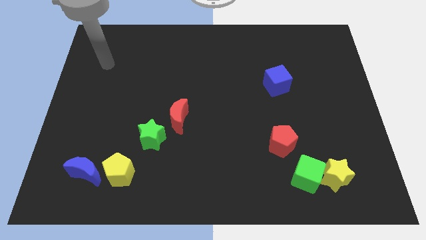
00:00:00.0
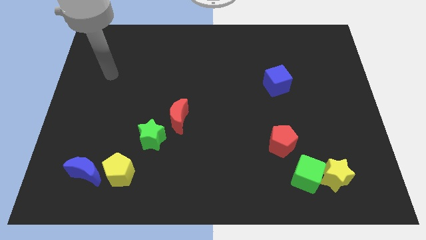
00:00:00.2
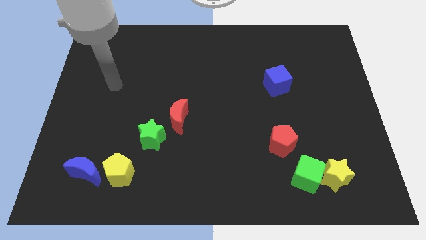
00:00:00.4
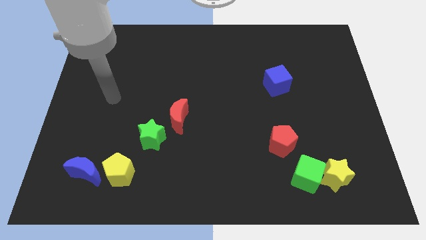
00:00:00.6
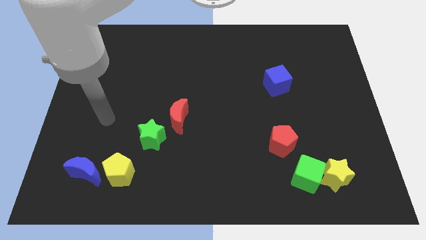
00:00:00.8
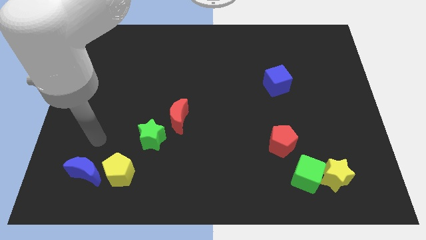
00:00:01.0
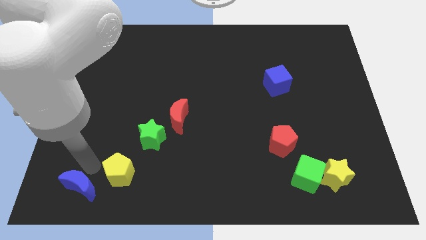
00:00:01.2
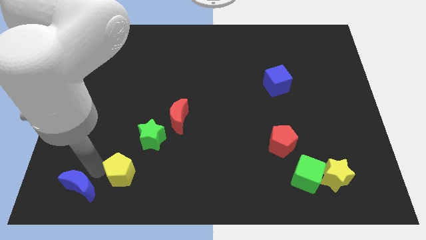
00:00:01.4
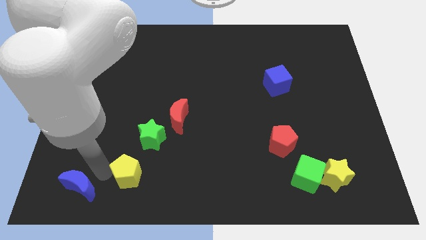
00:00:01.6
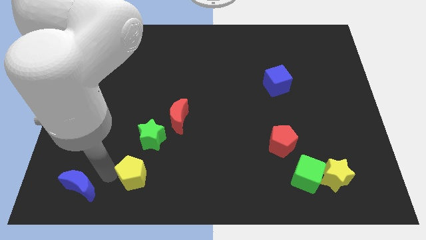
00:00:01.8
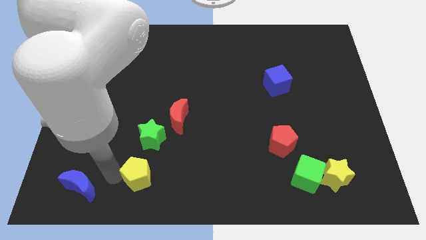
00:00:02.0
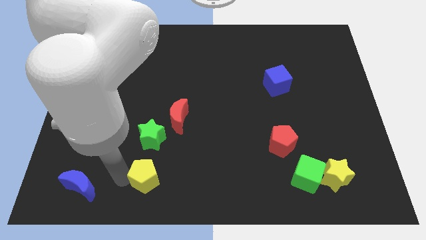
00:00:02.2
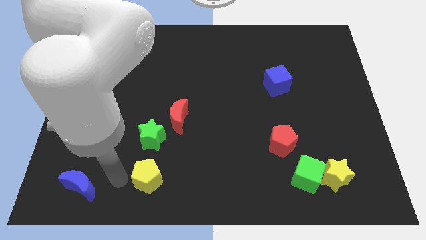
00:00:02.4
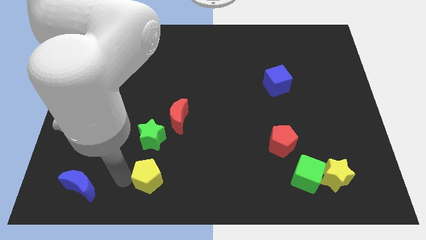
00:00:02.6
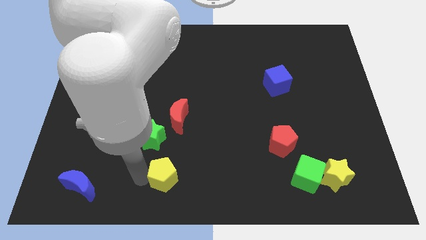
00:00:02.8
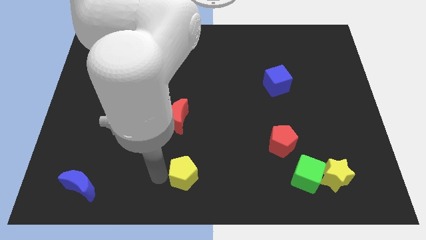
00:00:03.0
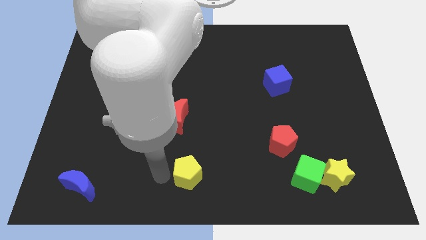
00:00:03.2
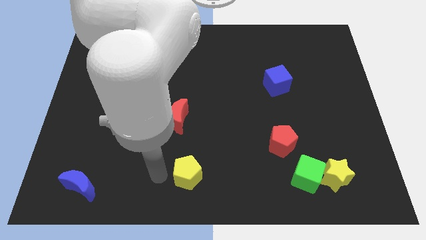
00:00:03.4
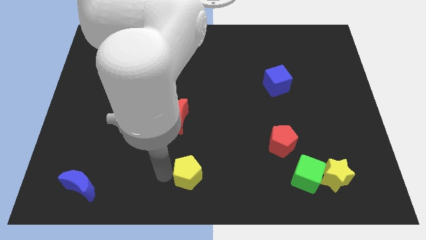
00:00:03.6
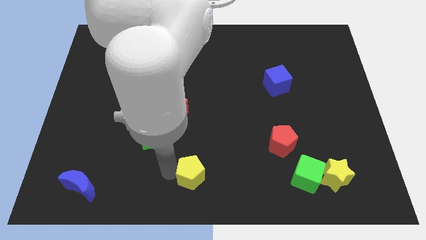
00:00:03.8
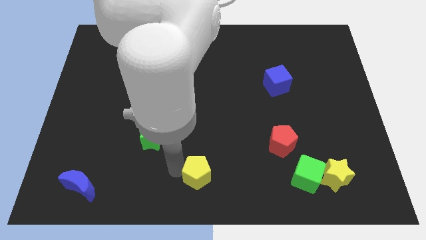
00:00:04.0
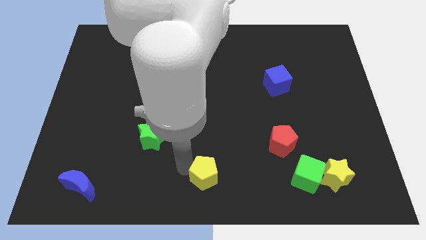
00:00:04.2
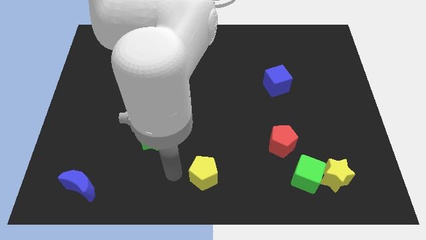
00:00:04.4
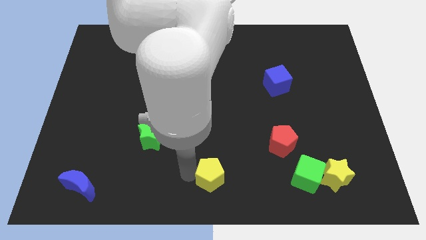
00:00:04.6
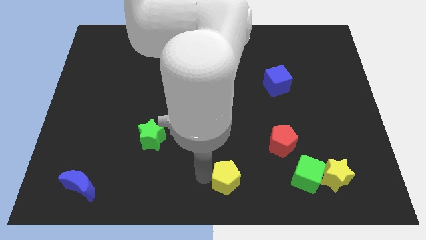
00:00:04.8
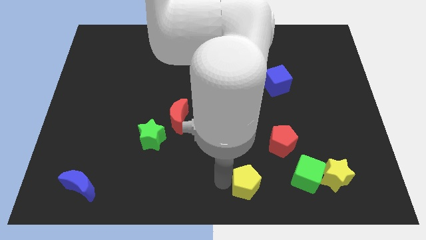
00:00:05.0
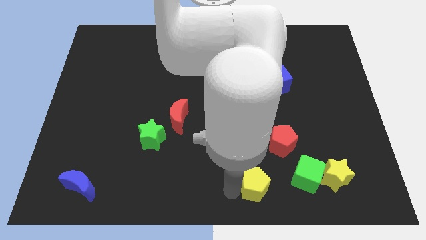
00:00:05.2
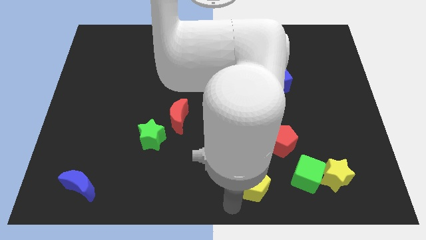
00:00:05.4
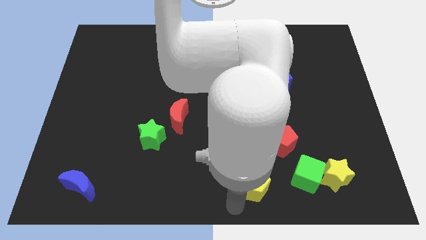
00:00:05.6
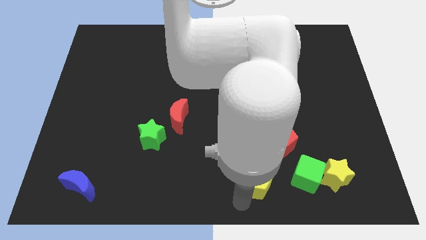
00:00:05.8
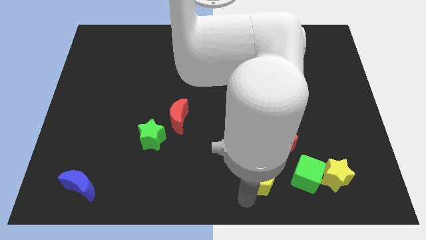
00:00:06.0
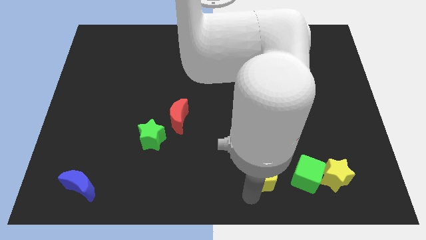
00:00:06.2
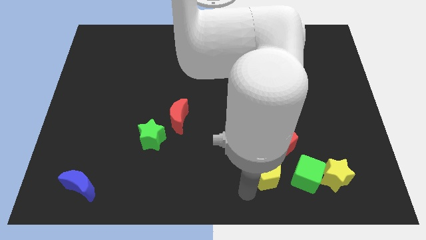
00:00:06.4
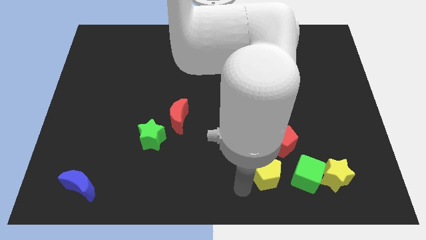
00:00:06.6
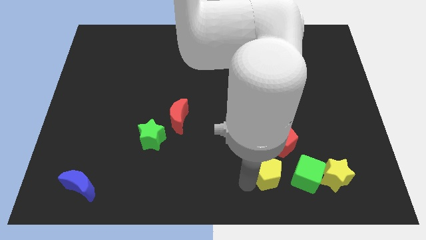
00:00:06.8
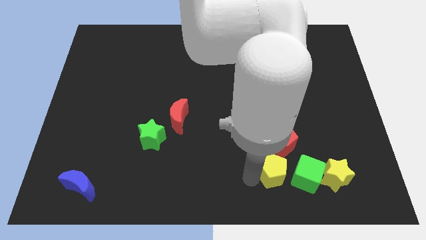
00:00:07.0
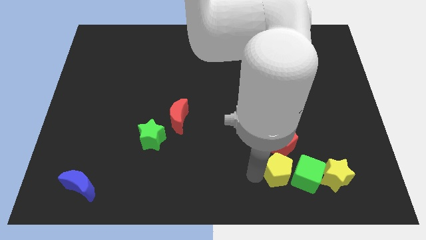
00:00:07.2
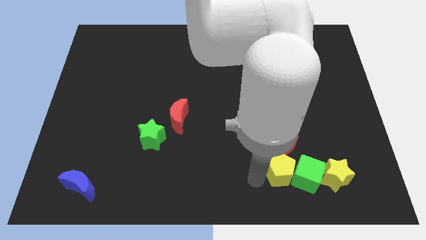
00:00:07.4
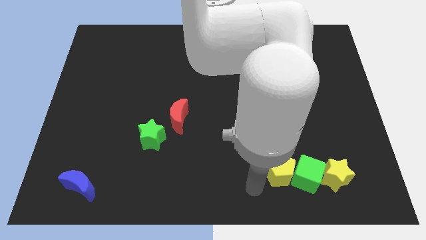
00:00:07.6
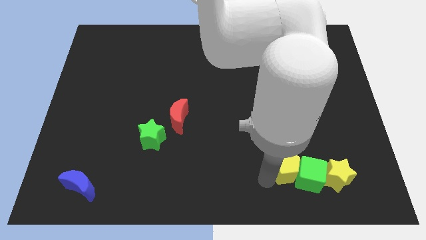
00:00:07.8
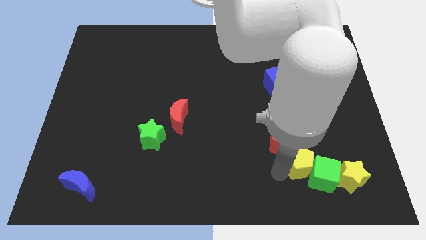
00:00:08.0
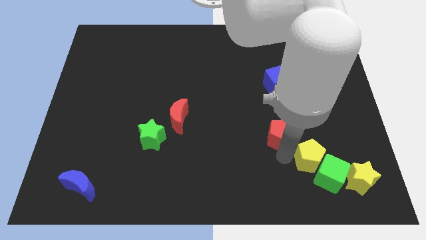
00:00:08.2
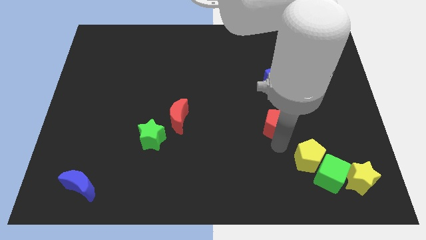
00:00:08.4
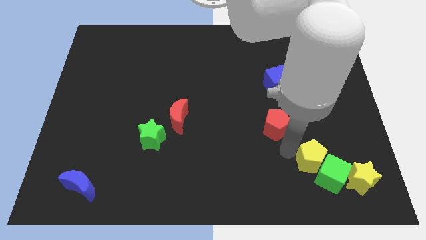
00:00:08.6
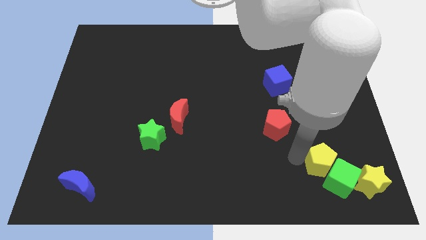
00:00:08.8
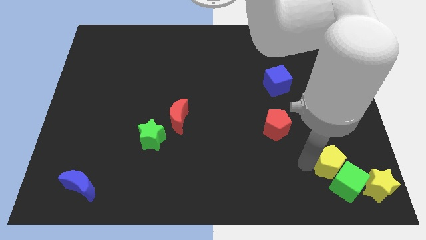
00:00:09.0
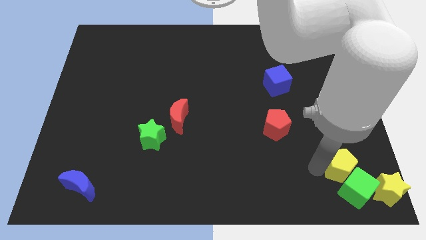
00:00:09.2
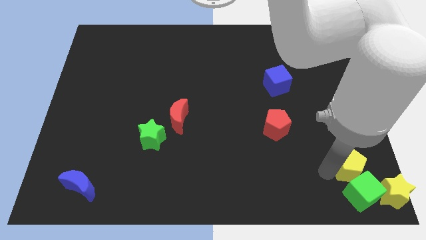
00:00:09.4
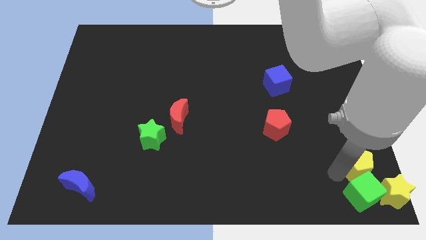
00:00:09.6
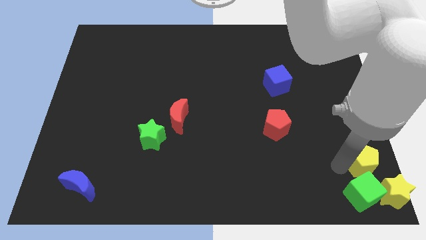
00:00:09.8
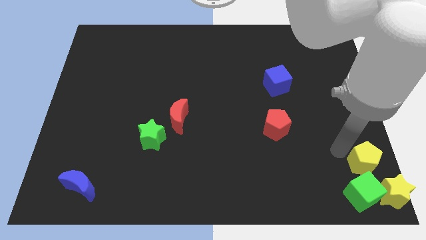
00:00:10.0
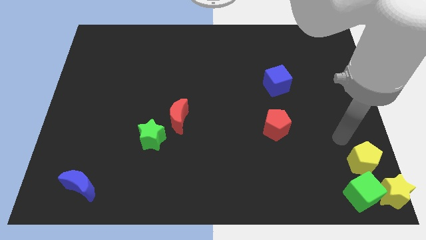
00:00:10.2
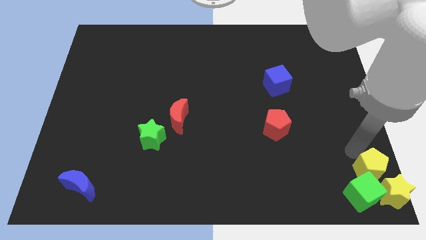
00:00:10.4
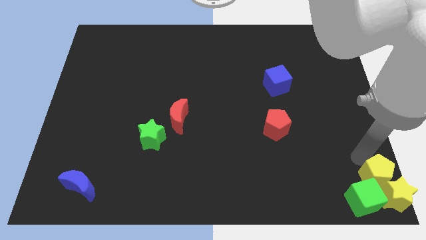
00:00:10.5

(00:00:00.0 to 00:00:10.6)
slide the yellow pentagon close to the yellow star

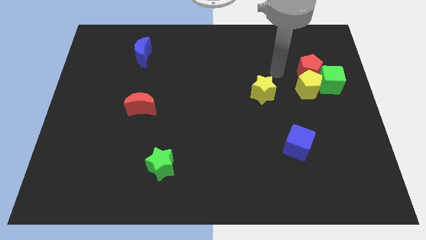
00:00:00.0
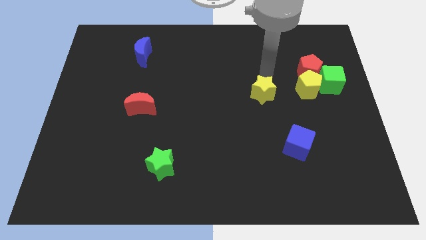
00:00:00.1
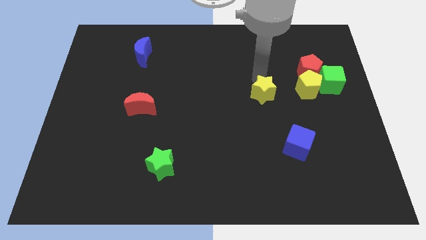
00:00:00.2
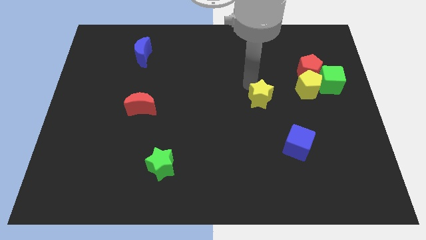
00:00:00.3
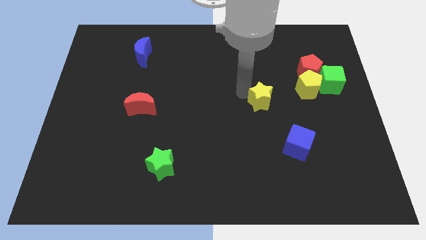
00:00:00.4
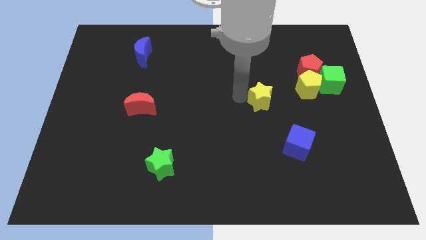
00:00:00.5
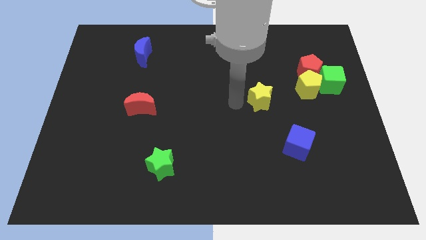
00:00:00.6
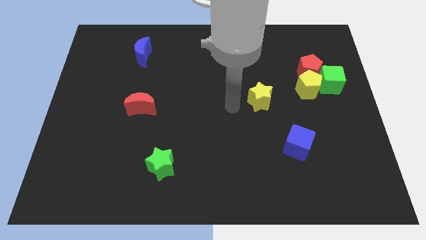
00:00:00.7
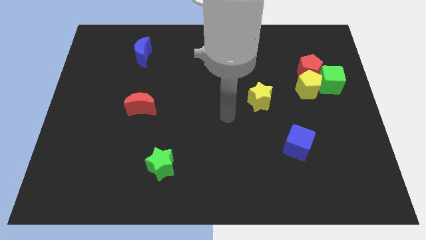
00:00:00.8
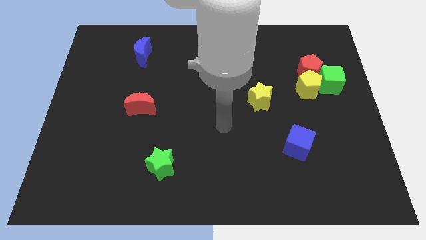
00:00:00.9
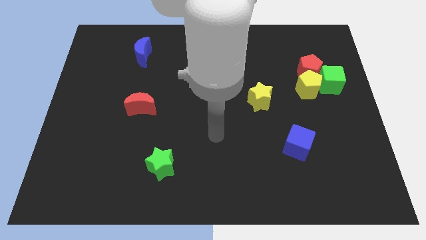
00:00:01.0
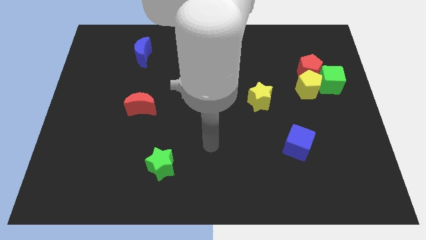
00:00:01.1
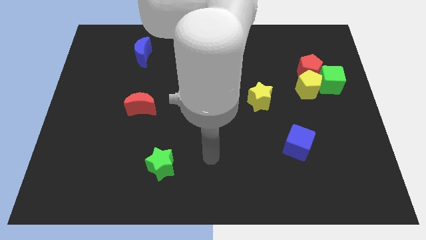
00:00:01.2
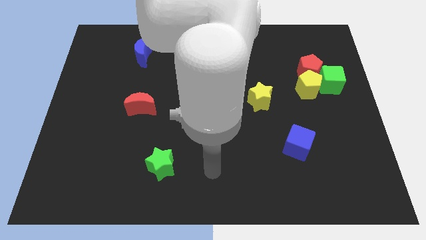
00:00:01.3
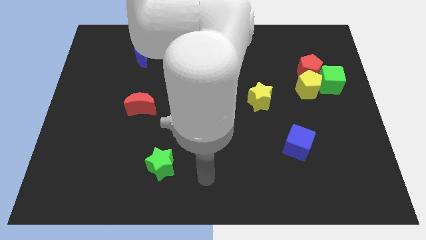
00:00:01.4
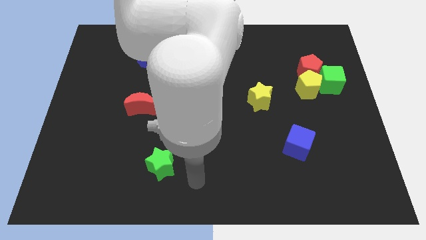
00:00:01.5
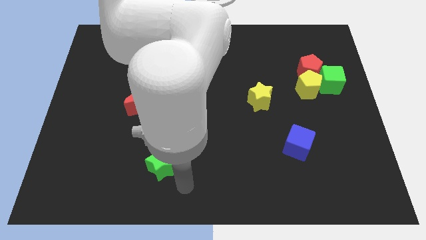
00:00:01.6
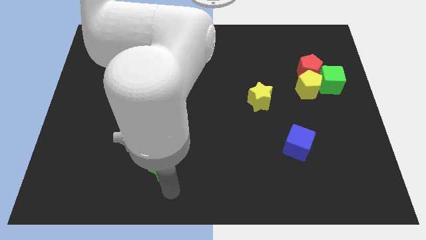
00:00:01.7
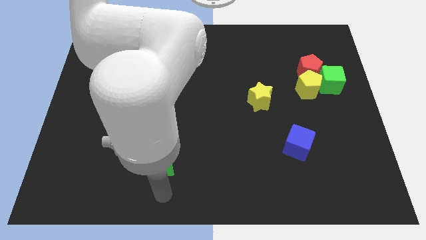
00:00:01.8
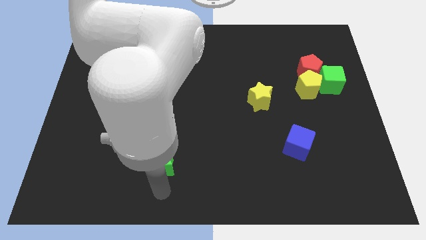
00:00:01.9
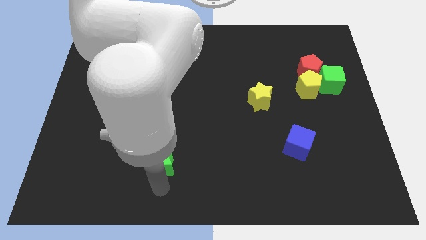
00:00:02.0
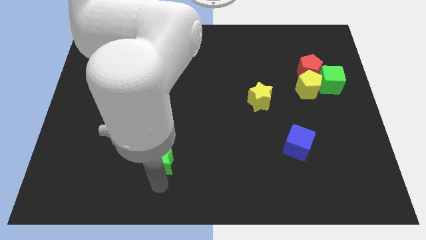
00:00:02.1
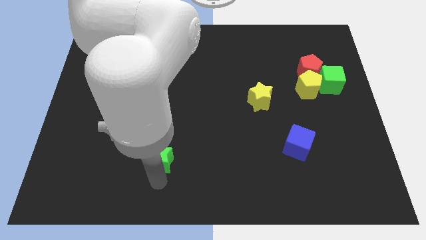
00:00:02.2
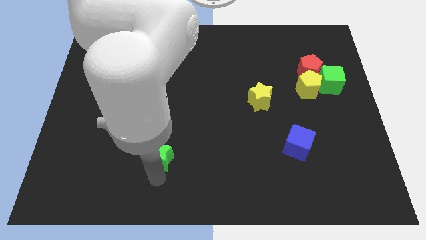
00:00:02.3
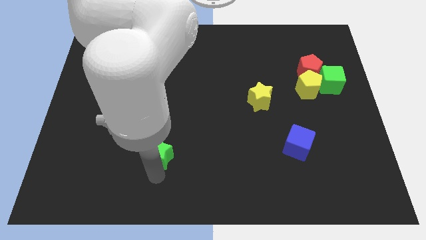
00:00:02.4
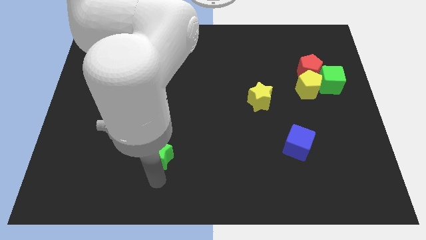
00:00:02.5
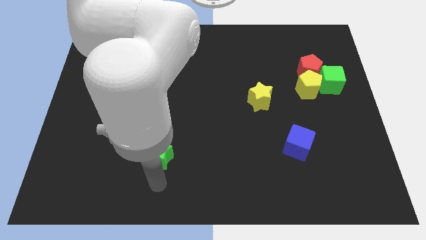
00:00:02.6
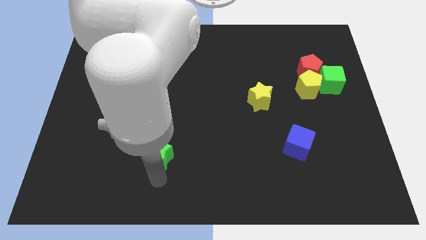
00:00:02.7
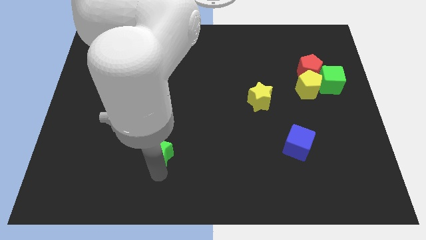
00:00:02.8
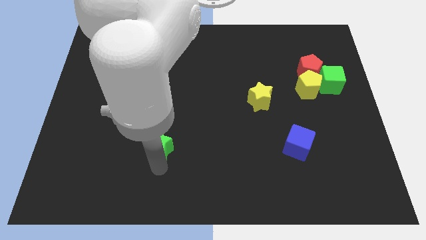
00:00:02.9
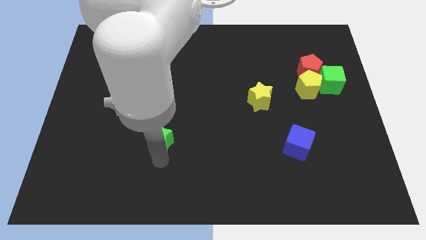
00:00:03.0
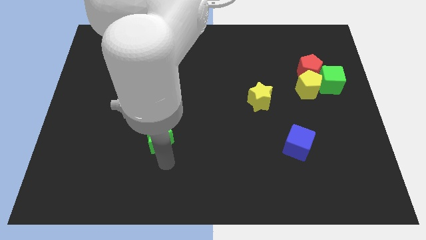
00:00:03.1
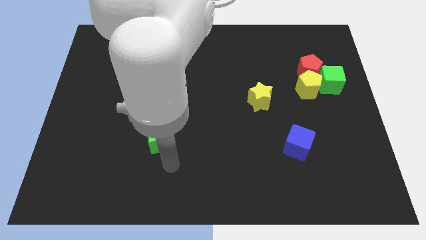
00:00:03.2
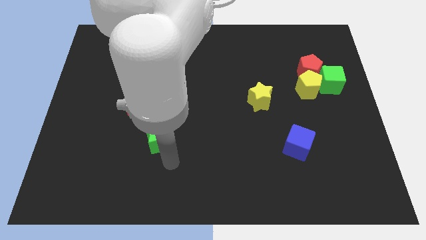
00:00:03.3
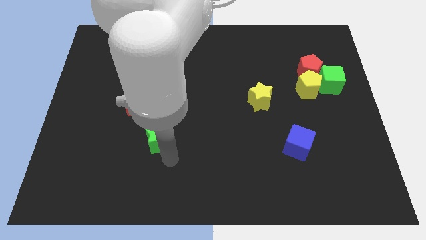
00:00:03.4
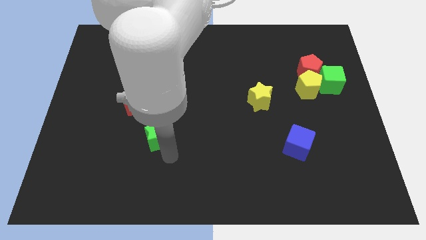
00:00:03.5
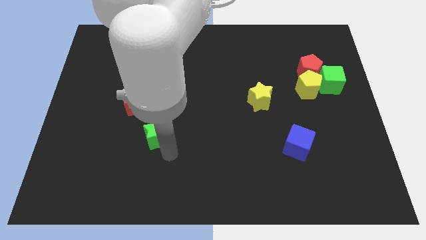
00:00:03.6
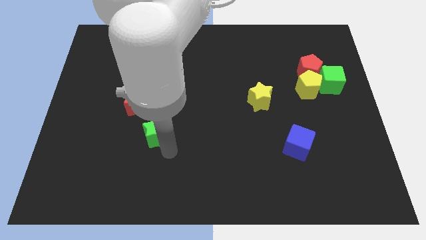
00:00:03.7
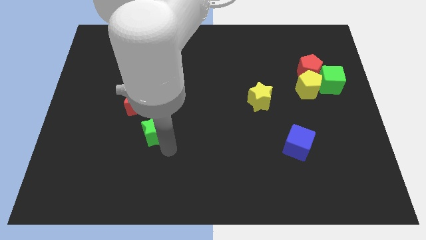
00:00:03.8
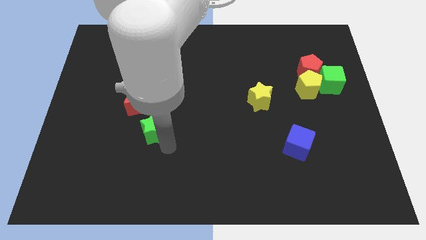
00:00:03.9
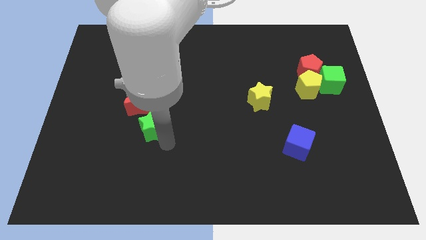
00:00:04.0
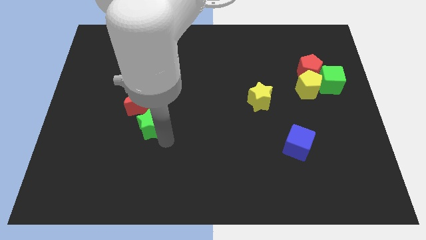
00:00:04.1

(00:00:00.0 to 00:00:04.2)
push the green star towards the red moon
